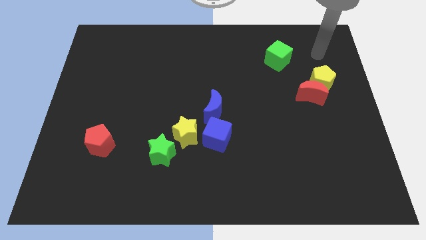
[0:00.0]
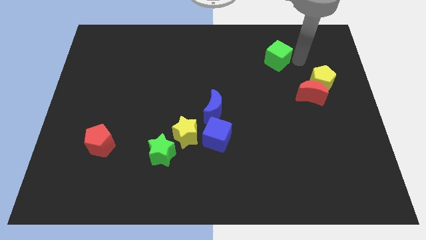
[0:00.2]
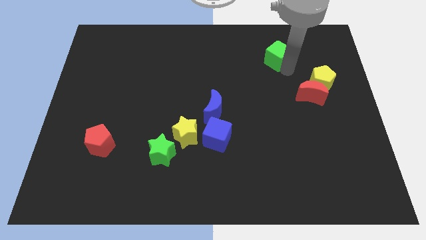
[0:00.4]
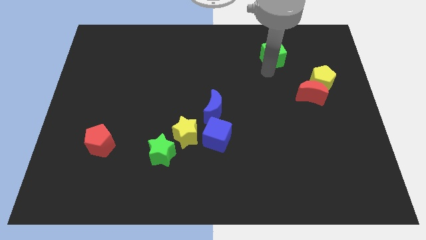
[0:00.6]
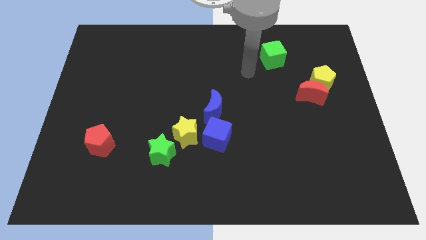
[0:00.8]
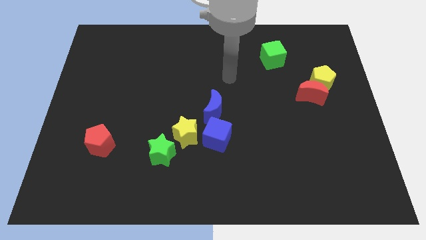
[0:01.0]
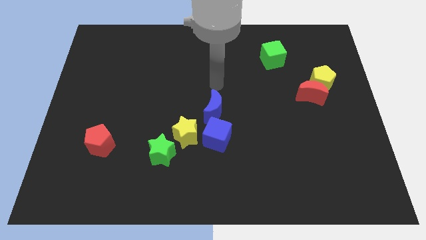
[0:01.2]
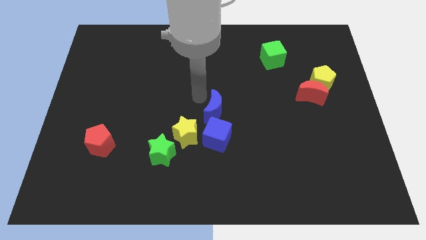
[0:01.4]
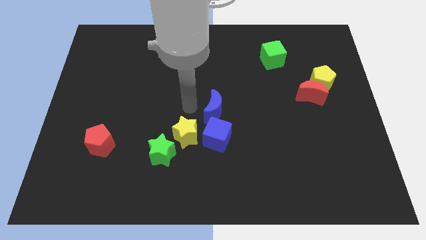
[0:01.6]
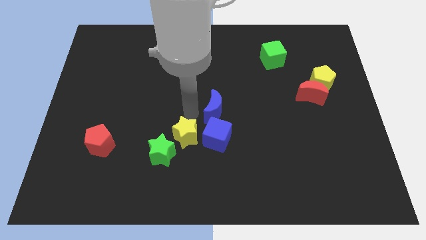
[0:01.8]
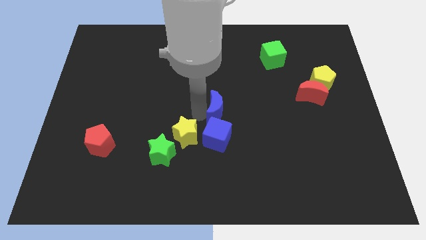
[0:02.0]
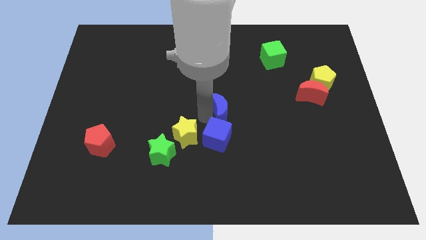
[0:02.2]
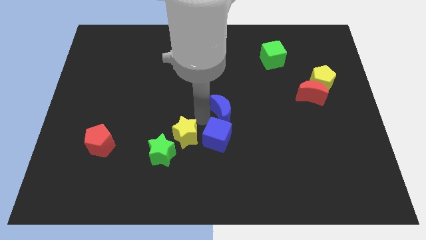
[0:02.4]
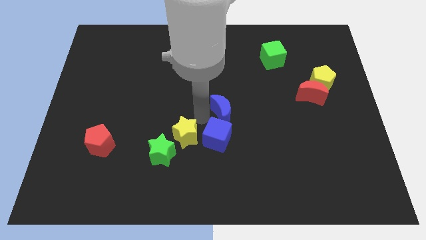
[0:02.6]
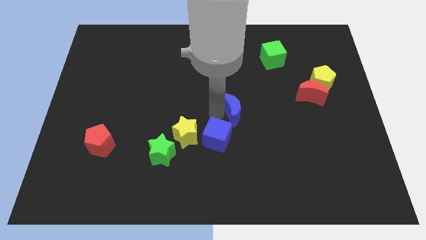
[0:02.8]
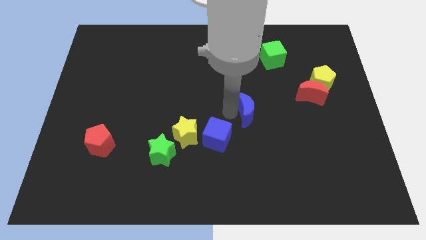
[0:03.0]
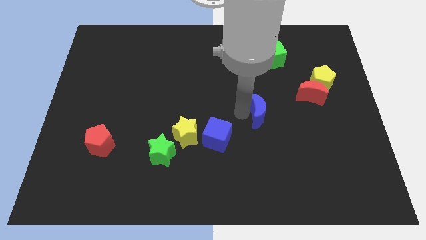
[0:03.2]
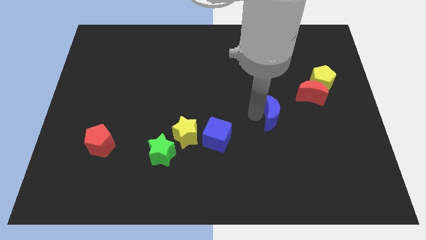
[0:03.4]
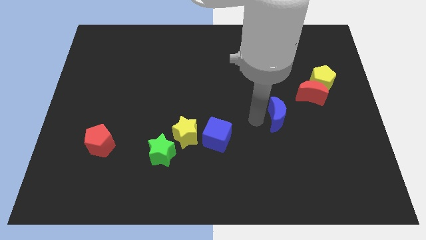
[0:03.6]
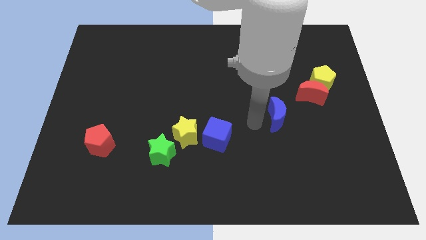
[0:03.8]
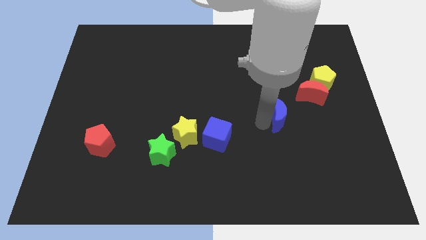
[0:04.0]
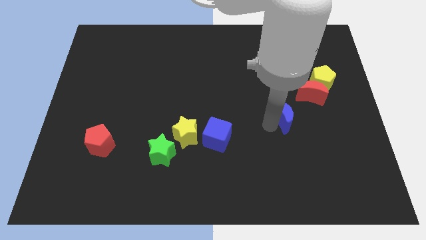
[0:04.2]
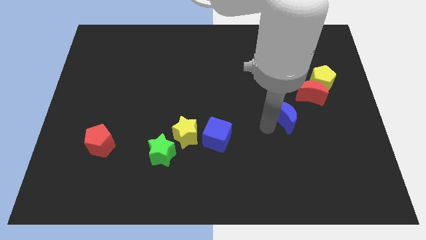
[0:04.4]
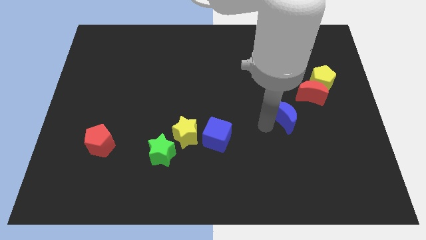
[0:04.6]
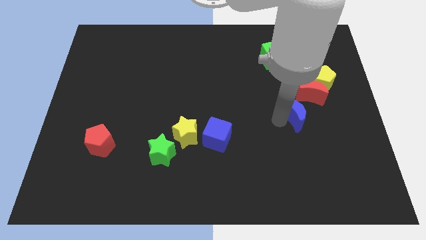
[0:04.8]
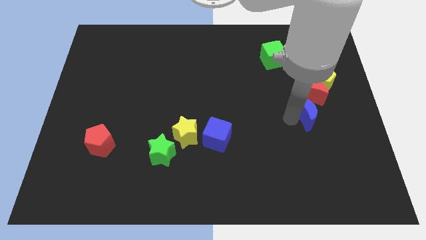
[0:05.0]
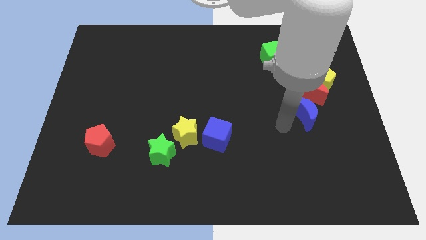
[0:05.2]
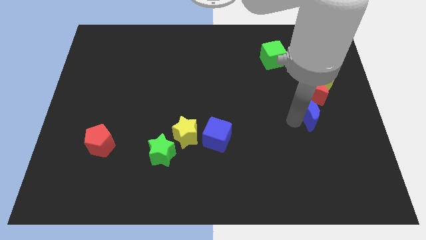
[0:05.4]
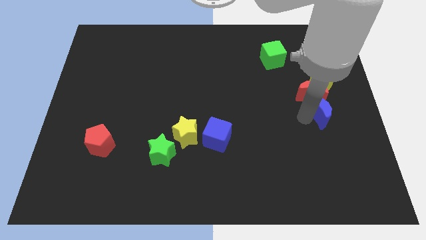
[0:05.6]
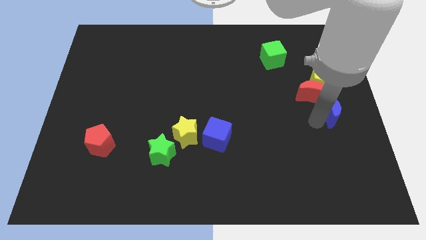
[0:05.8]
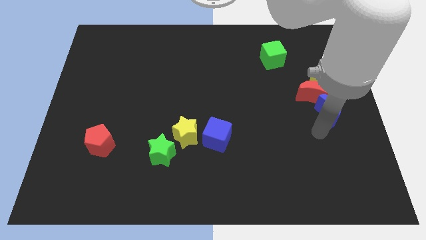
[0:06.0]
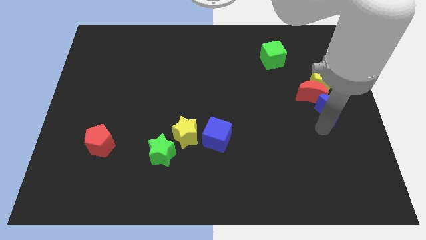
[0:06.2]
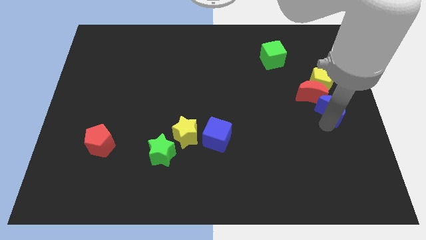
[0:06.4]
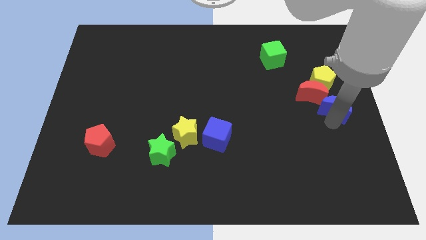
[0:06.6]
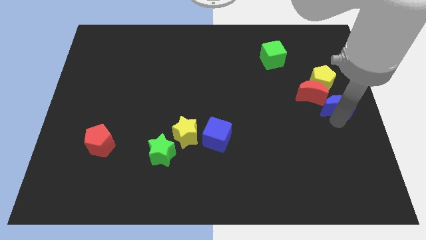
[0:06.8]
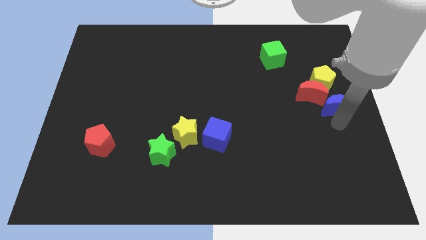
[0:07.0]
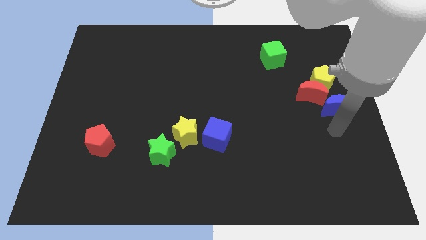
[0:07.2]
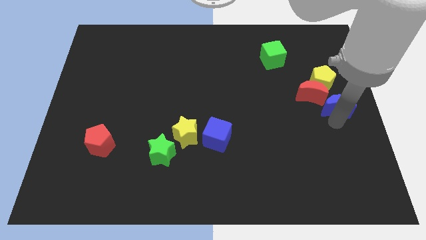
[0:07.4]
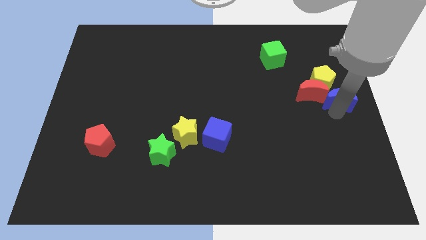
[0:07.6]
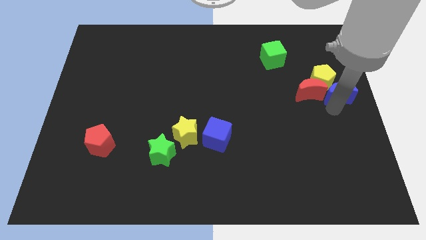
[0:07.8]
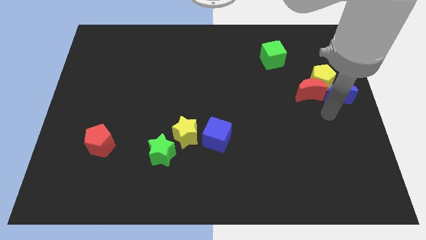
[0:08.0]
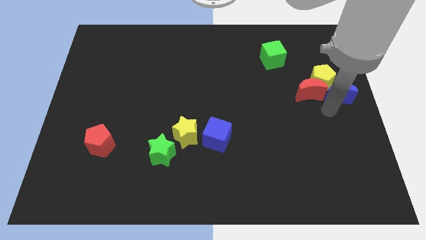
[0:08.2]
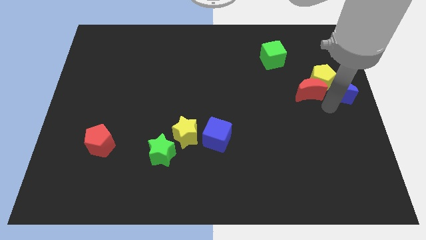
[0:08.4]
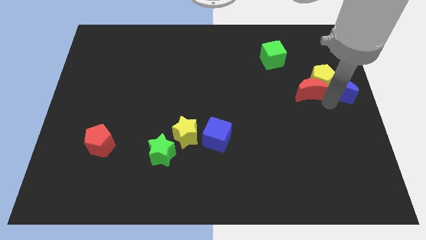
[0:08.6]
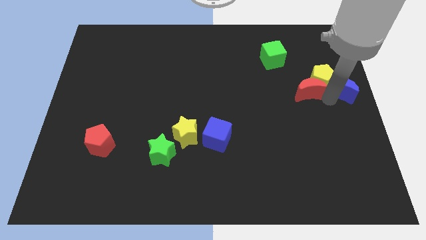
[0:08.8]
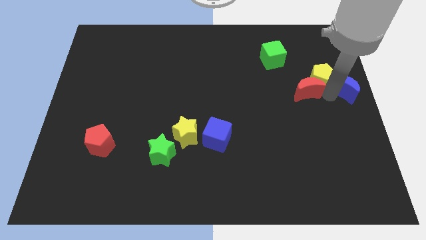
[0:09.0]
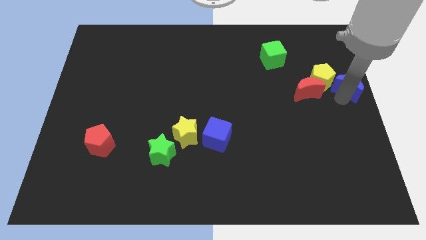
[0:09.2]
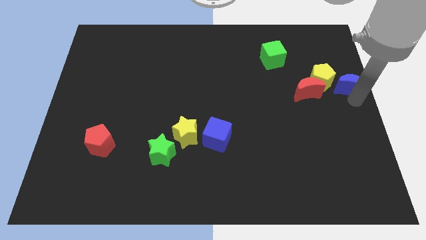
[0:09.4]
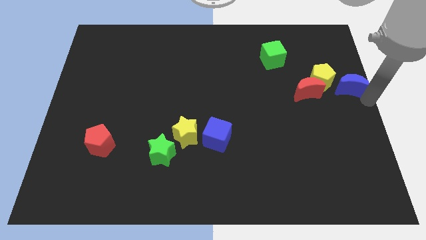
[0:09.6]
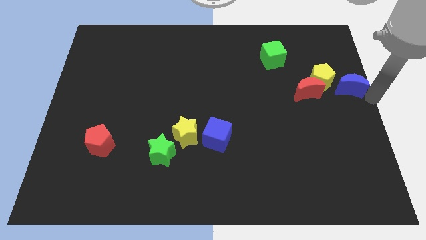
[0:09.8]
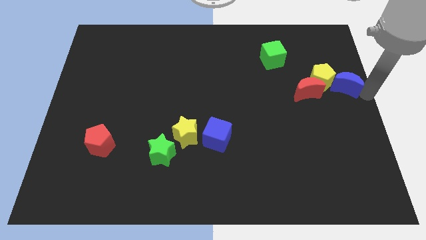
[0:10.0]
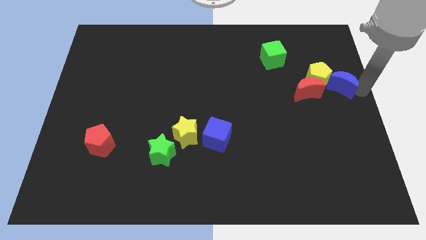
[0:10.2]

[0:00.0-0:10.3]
push the blue moon to the top right of the red moon

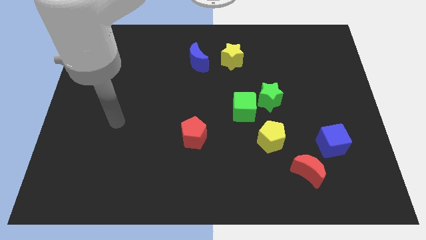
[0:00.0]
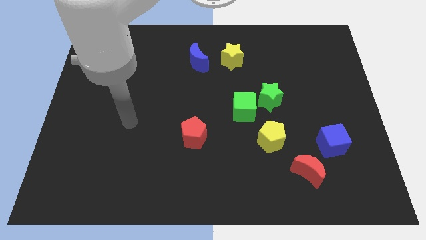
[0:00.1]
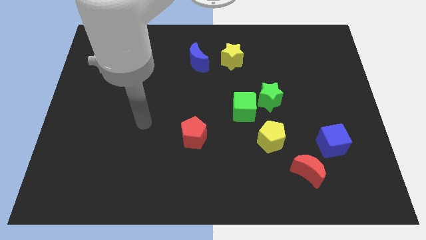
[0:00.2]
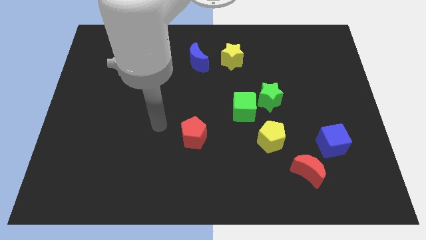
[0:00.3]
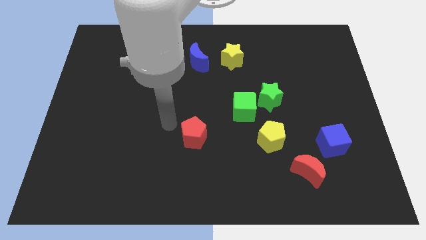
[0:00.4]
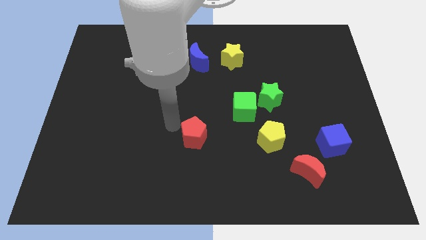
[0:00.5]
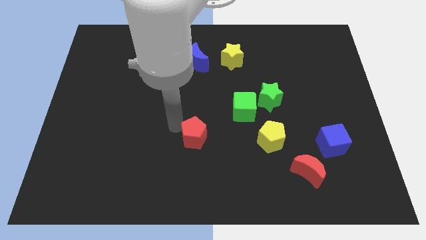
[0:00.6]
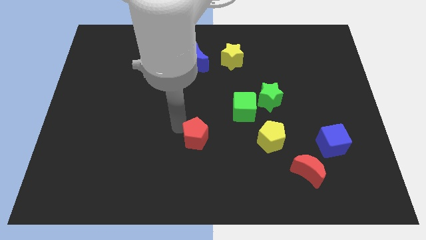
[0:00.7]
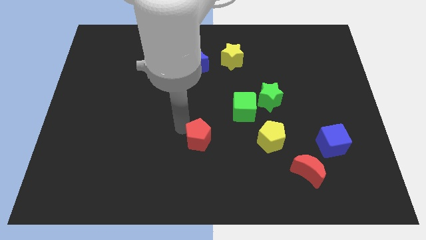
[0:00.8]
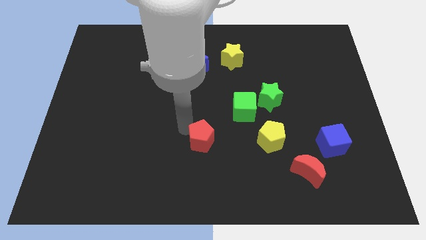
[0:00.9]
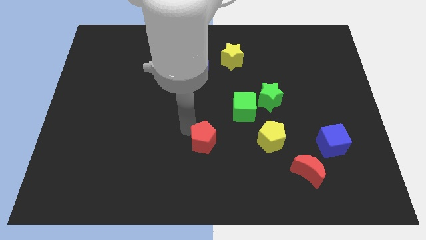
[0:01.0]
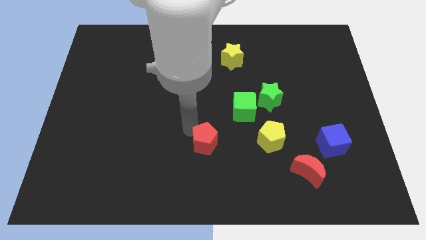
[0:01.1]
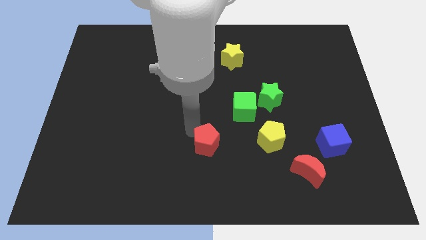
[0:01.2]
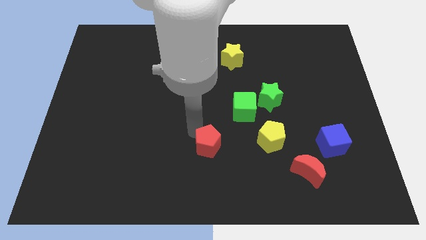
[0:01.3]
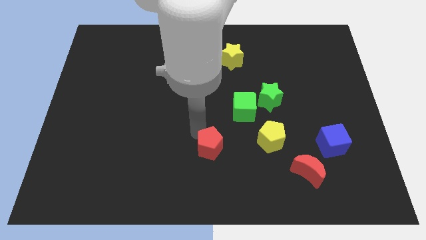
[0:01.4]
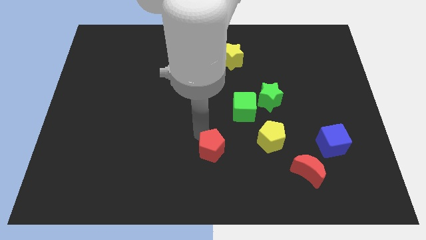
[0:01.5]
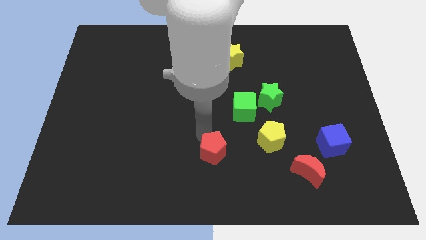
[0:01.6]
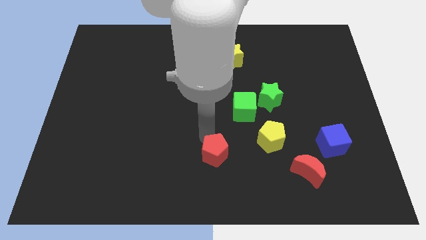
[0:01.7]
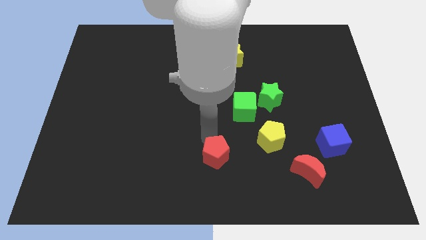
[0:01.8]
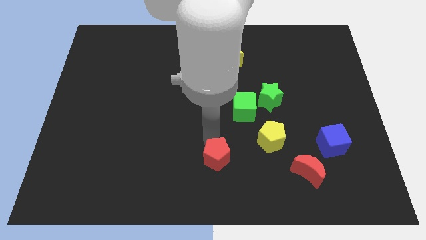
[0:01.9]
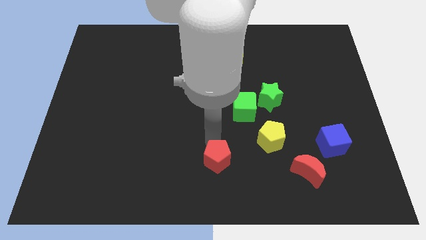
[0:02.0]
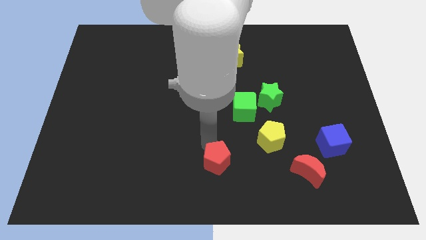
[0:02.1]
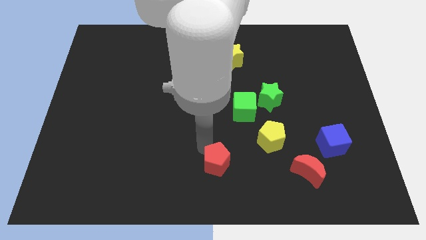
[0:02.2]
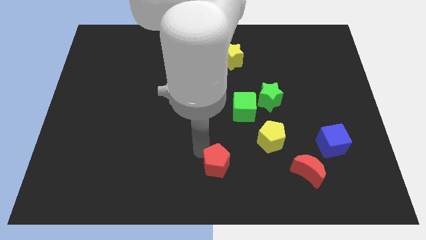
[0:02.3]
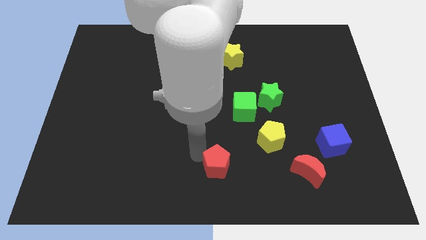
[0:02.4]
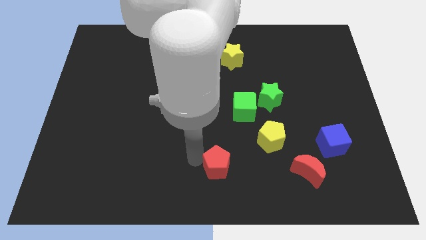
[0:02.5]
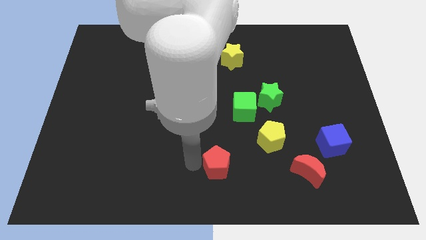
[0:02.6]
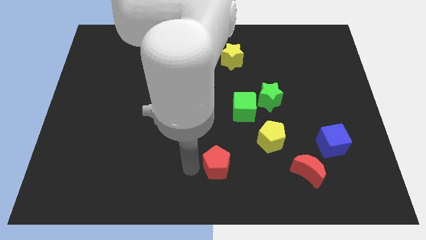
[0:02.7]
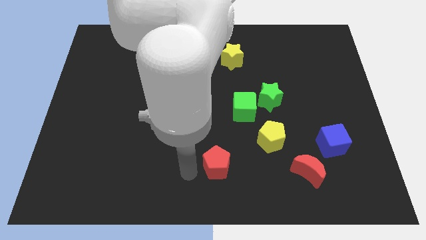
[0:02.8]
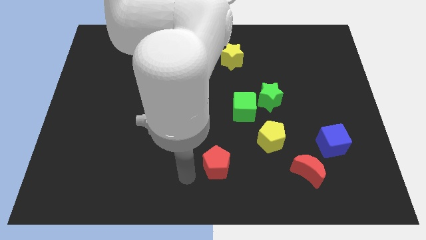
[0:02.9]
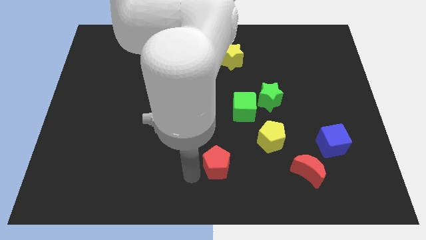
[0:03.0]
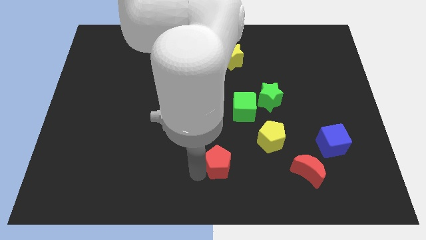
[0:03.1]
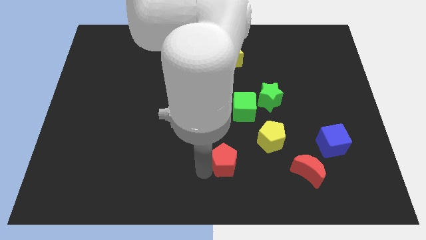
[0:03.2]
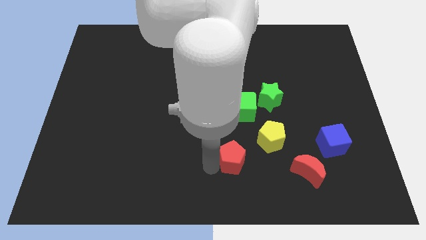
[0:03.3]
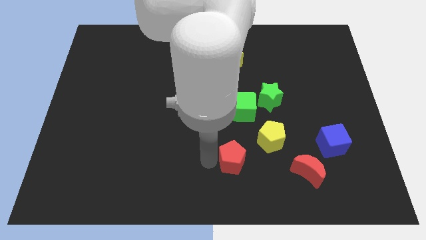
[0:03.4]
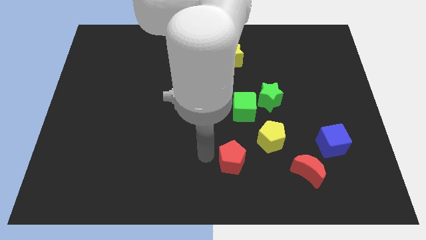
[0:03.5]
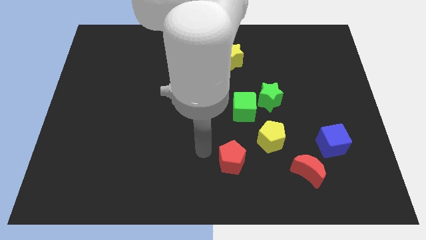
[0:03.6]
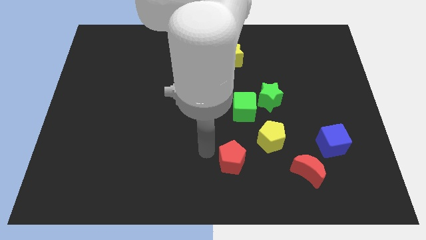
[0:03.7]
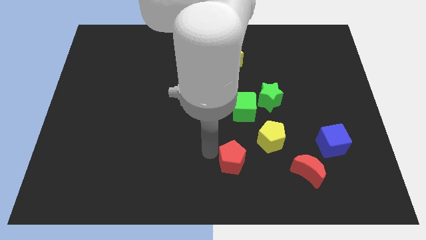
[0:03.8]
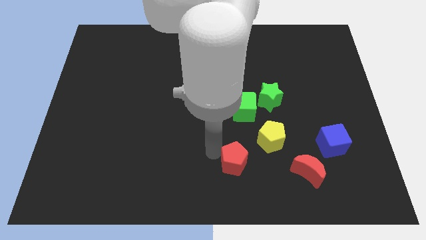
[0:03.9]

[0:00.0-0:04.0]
move the red pentagon just left of the red moon
